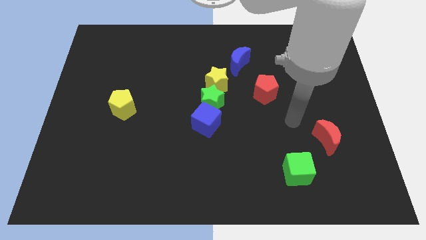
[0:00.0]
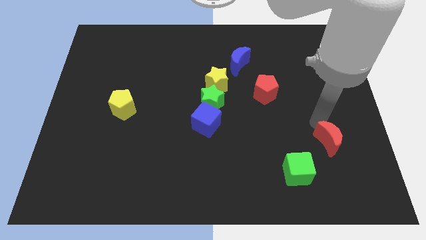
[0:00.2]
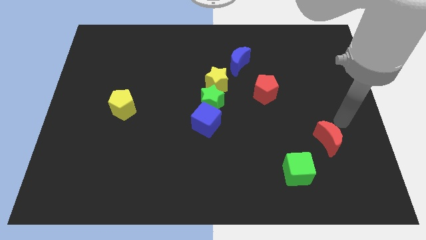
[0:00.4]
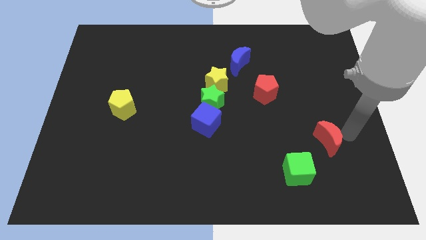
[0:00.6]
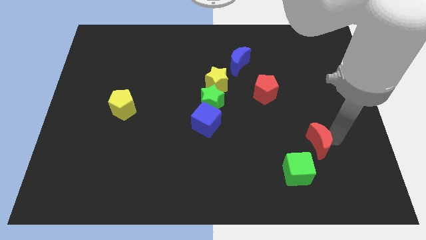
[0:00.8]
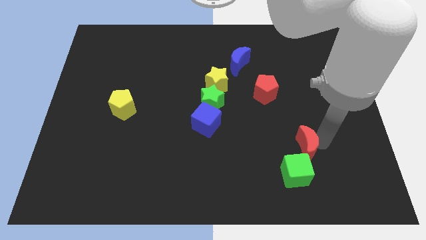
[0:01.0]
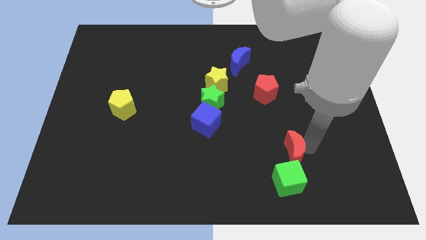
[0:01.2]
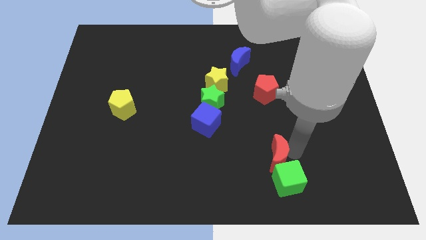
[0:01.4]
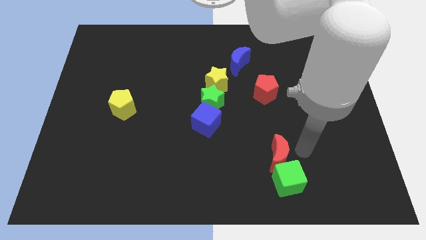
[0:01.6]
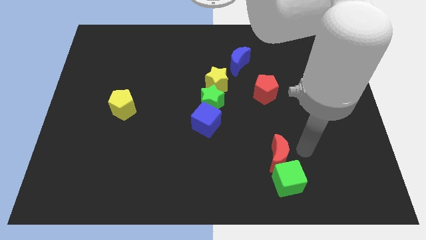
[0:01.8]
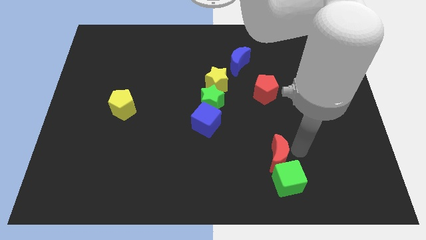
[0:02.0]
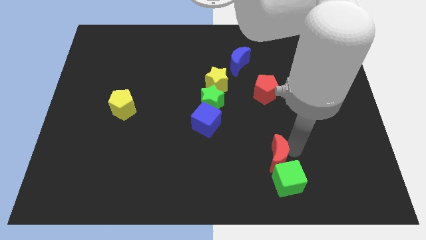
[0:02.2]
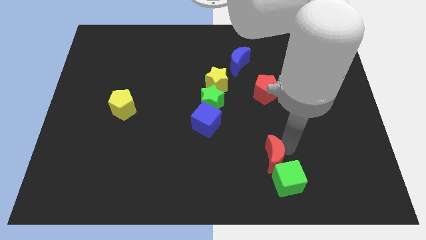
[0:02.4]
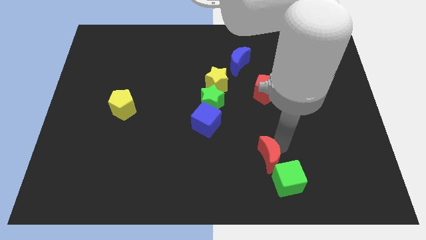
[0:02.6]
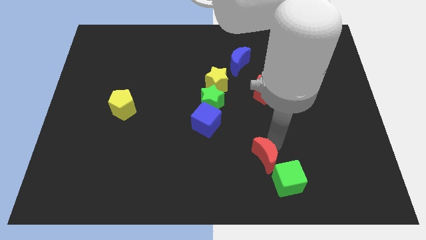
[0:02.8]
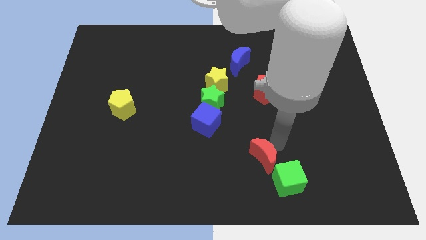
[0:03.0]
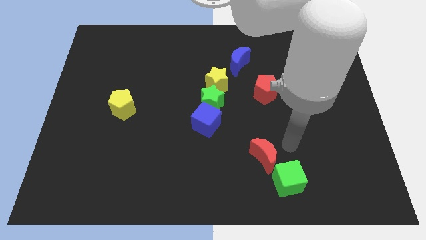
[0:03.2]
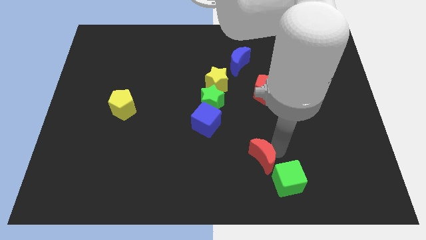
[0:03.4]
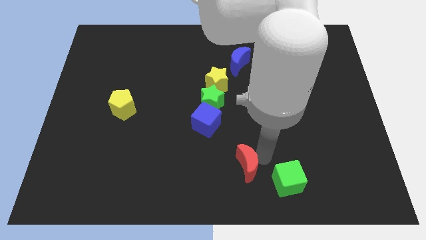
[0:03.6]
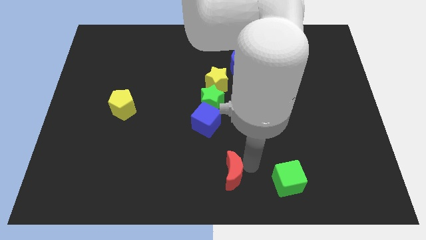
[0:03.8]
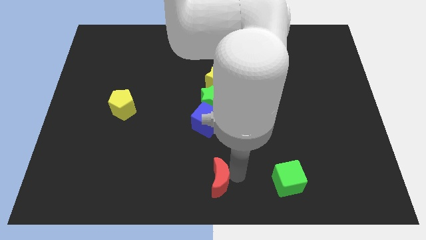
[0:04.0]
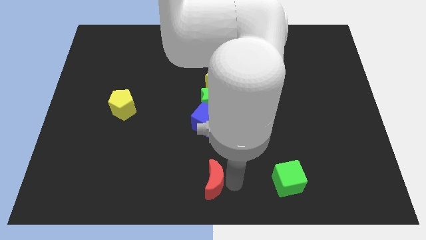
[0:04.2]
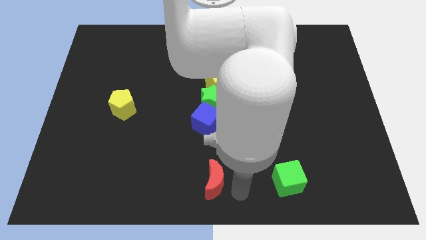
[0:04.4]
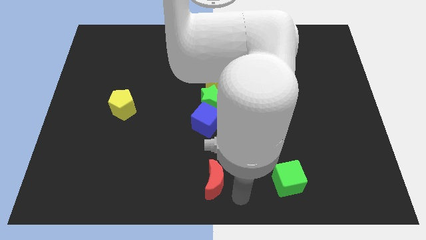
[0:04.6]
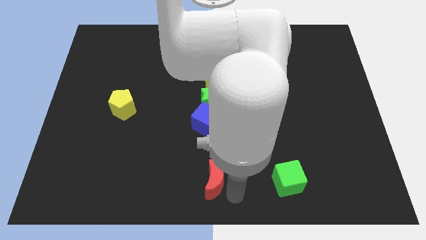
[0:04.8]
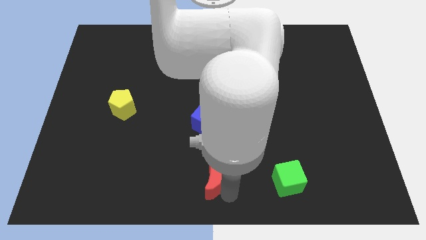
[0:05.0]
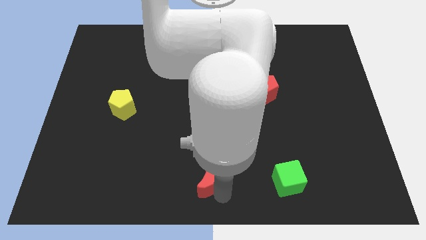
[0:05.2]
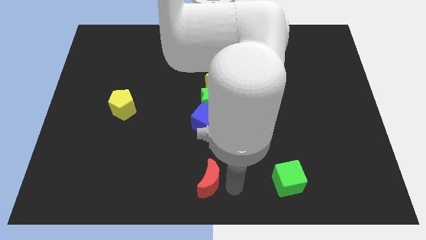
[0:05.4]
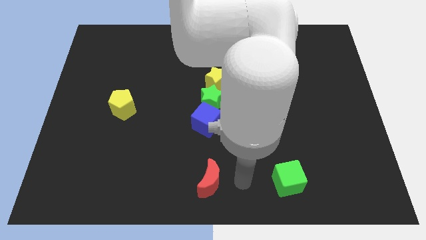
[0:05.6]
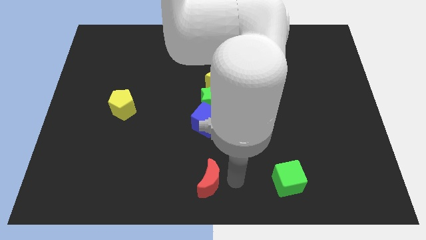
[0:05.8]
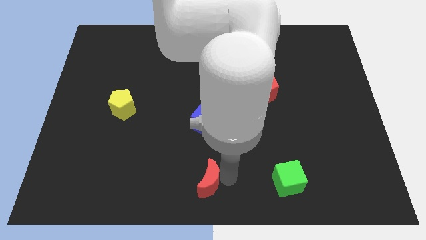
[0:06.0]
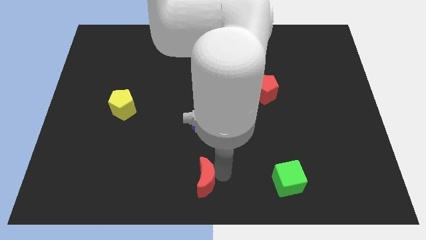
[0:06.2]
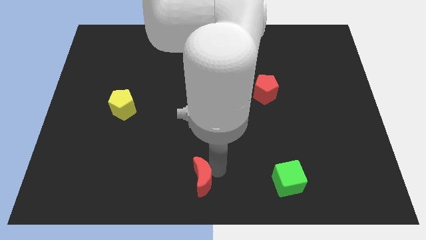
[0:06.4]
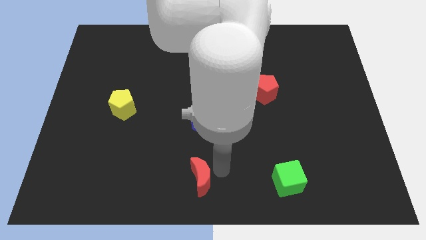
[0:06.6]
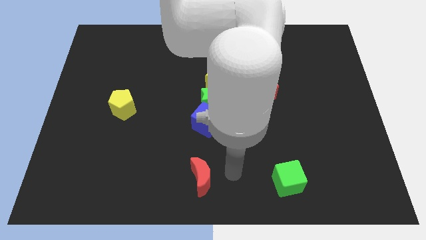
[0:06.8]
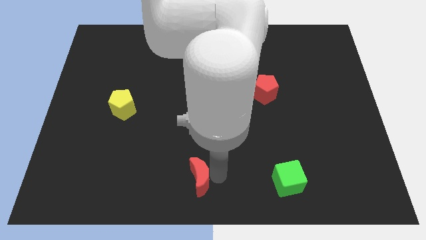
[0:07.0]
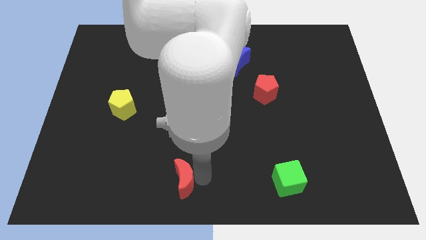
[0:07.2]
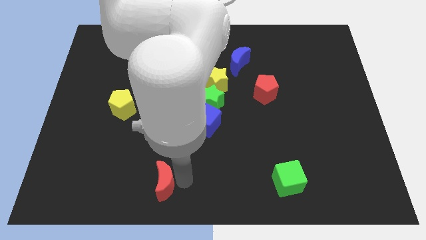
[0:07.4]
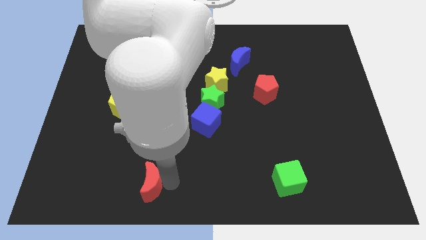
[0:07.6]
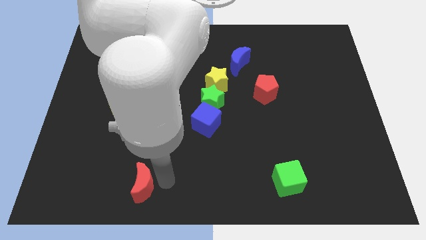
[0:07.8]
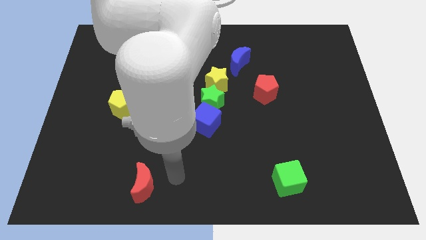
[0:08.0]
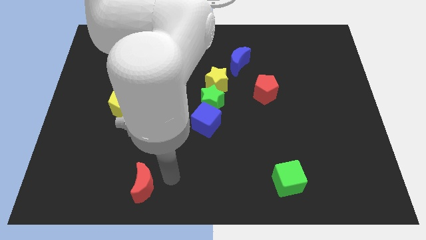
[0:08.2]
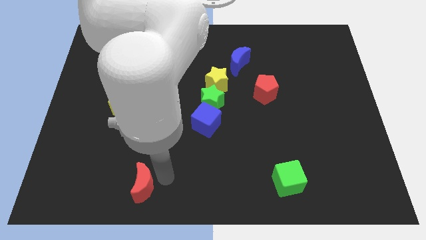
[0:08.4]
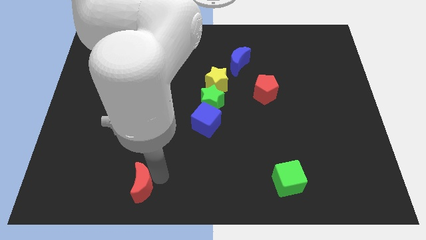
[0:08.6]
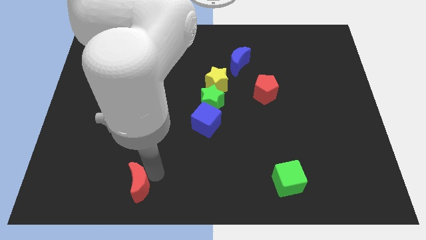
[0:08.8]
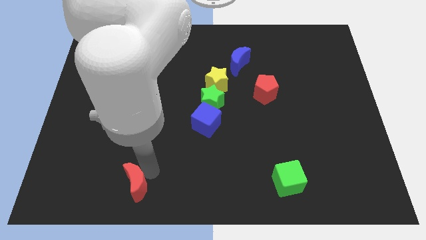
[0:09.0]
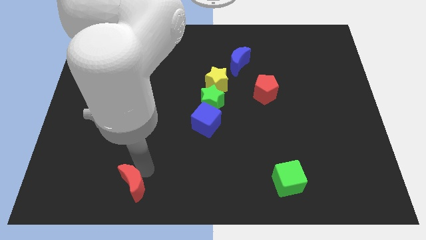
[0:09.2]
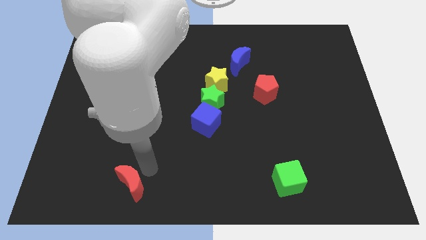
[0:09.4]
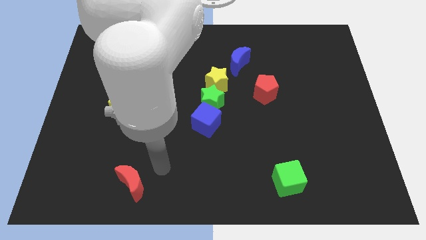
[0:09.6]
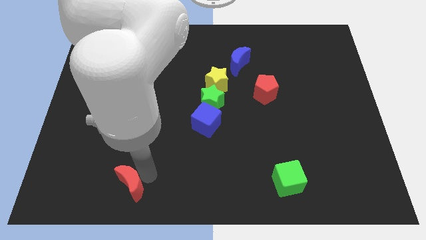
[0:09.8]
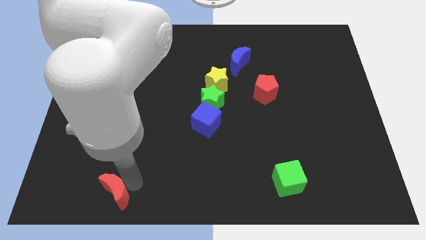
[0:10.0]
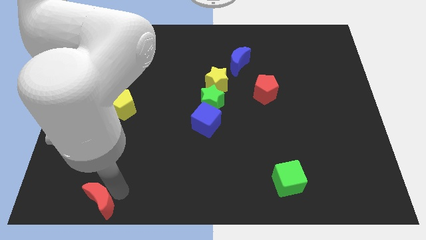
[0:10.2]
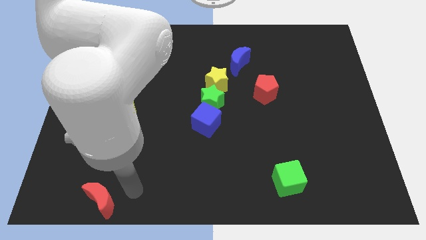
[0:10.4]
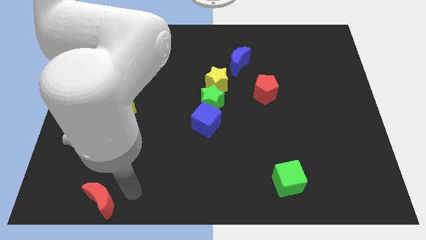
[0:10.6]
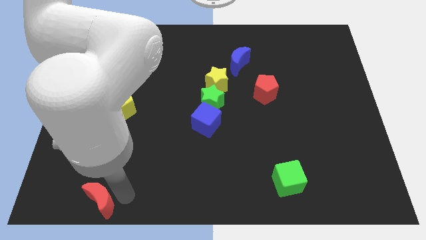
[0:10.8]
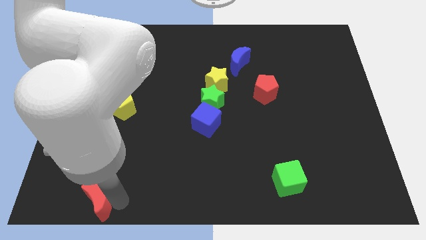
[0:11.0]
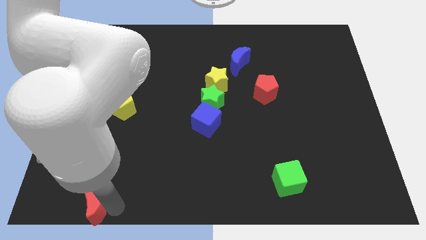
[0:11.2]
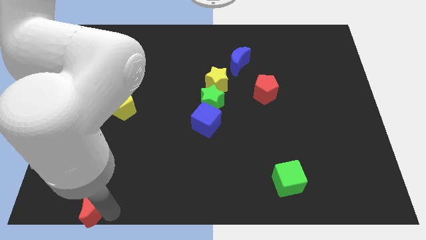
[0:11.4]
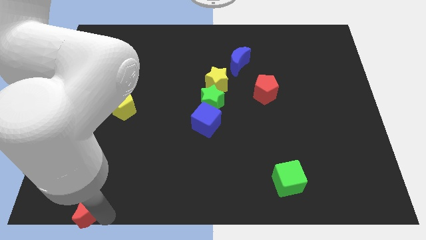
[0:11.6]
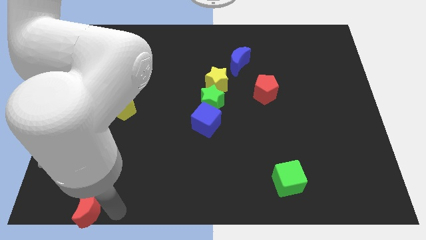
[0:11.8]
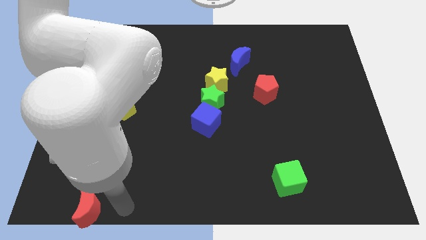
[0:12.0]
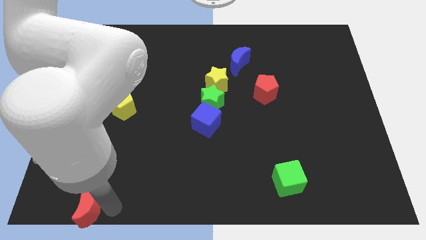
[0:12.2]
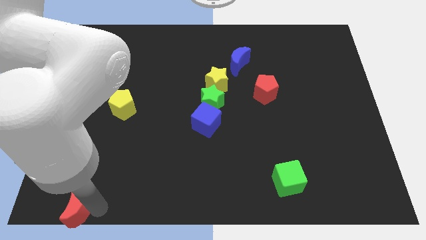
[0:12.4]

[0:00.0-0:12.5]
slide the red moon to the lower left corner
